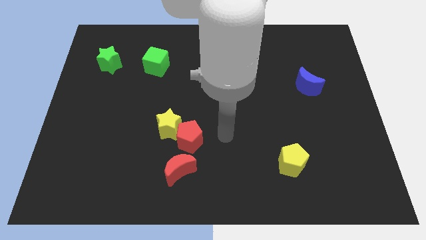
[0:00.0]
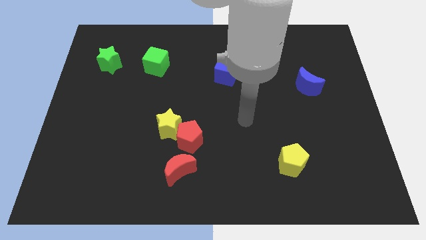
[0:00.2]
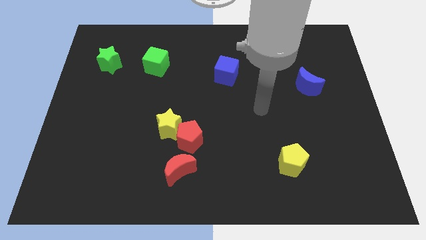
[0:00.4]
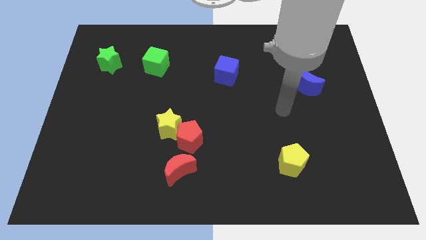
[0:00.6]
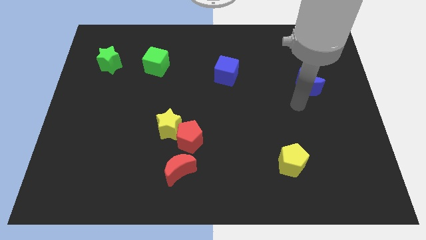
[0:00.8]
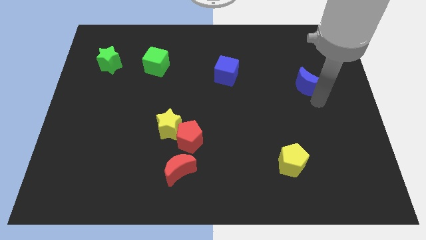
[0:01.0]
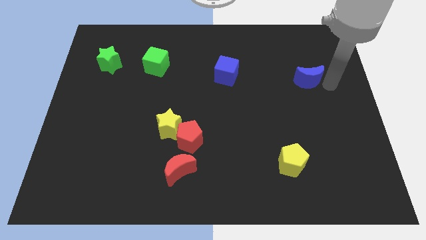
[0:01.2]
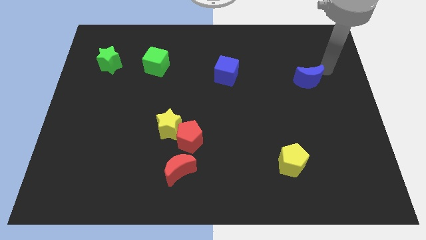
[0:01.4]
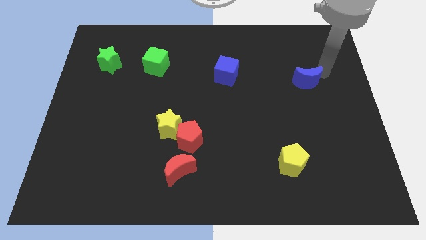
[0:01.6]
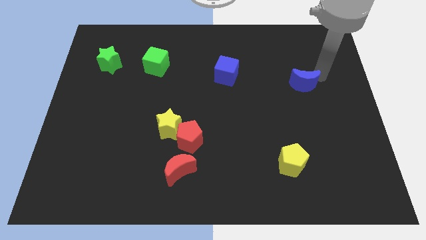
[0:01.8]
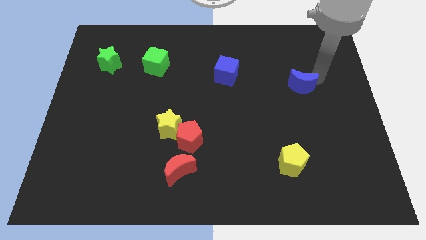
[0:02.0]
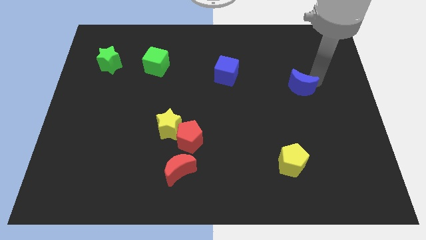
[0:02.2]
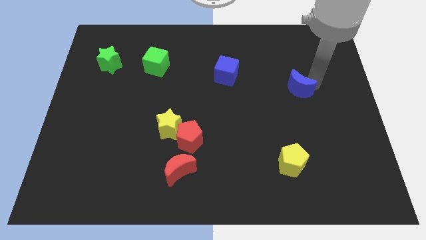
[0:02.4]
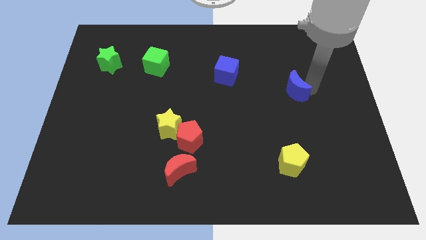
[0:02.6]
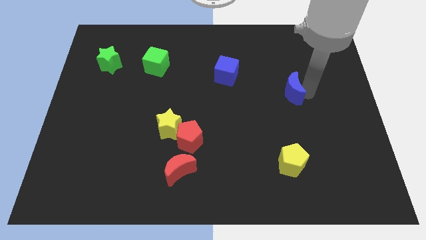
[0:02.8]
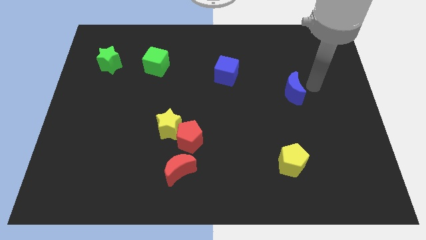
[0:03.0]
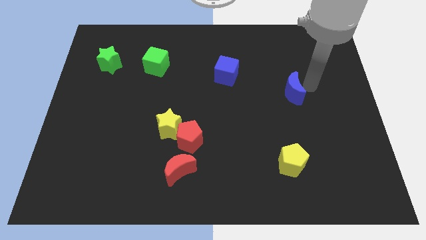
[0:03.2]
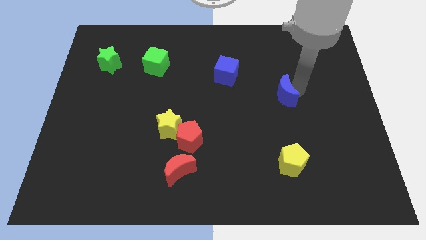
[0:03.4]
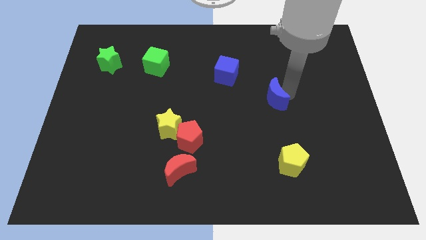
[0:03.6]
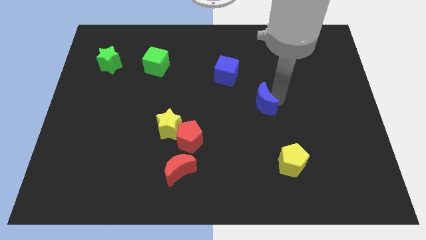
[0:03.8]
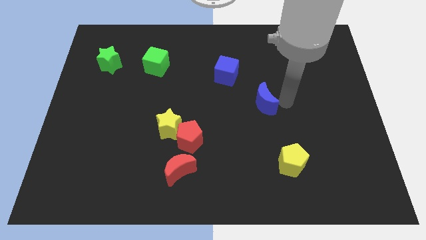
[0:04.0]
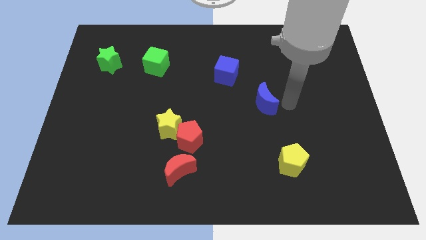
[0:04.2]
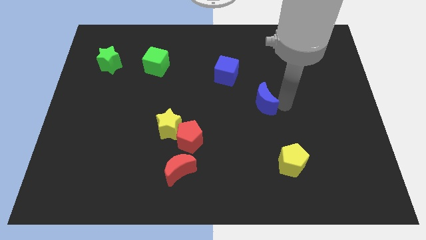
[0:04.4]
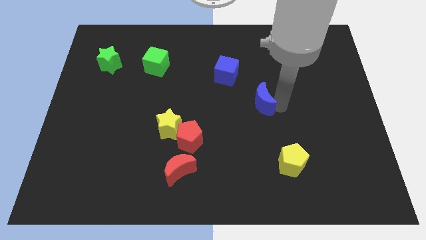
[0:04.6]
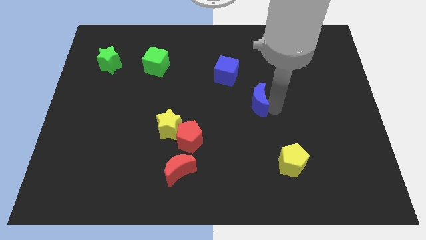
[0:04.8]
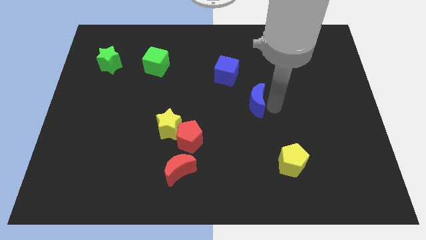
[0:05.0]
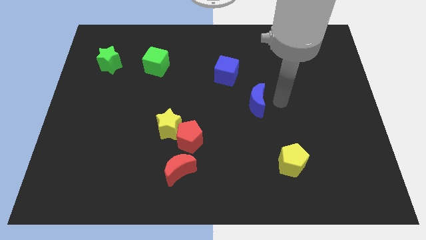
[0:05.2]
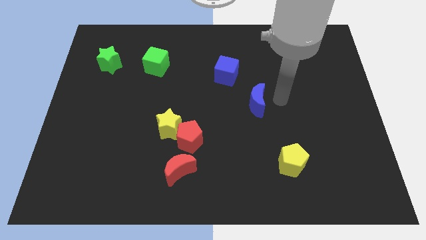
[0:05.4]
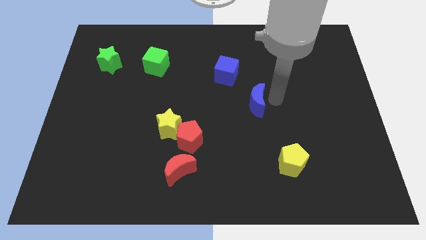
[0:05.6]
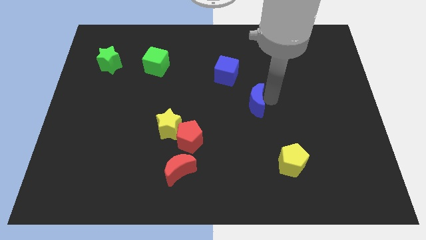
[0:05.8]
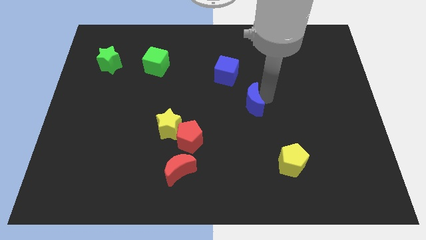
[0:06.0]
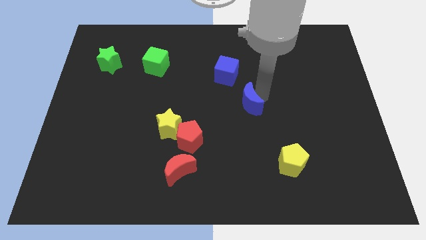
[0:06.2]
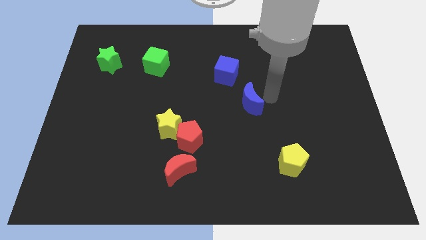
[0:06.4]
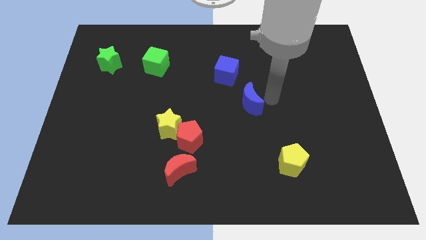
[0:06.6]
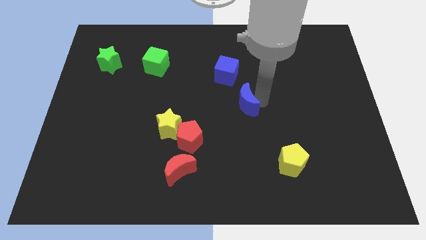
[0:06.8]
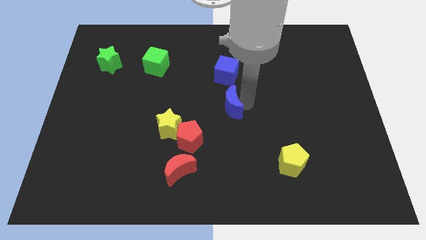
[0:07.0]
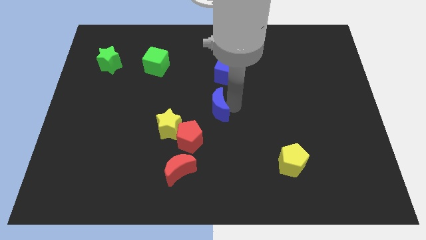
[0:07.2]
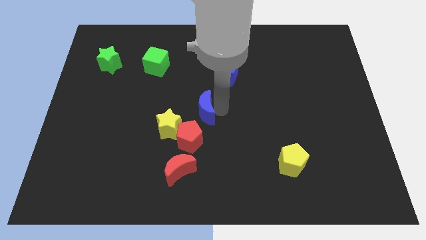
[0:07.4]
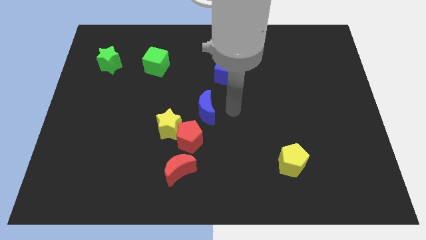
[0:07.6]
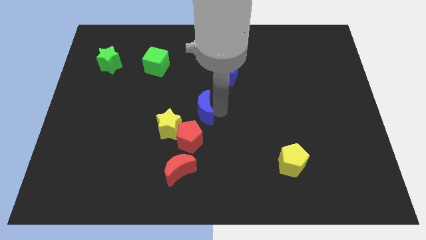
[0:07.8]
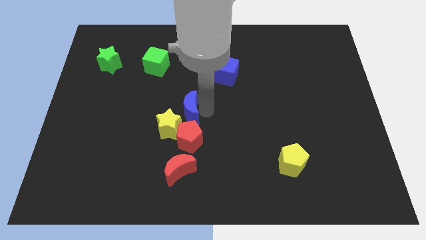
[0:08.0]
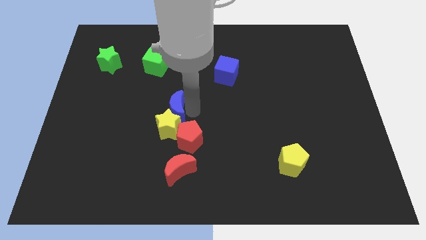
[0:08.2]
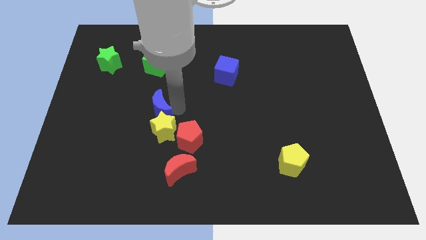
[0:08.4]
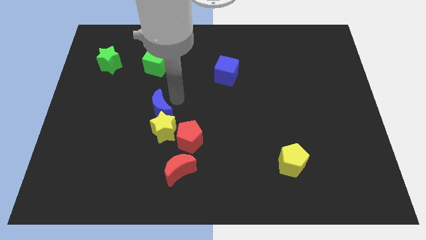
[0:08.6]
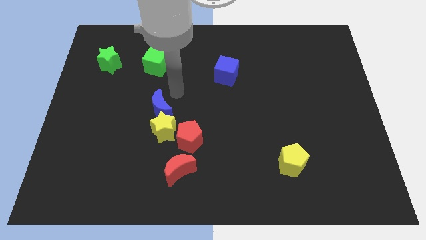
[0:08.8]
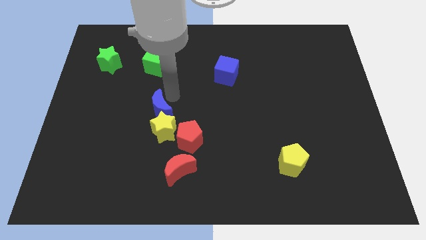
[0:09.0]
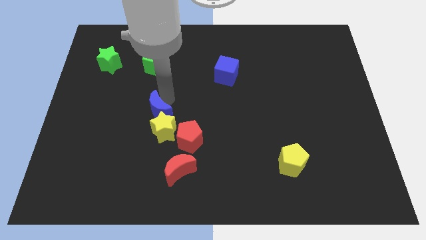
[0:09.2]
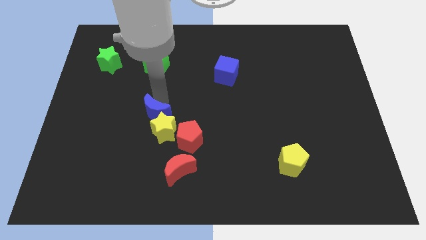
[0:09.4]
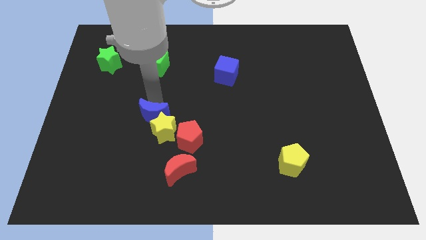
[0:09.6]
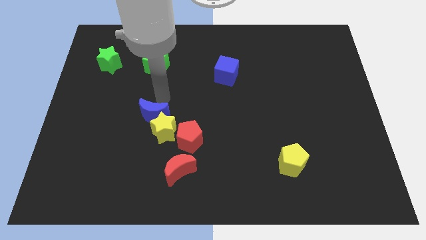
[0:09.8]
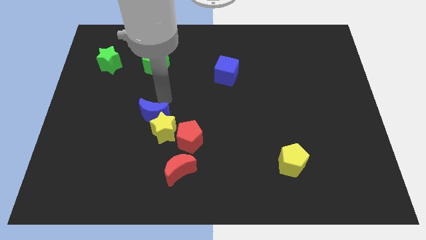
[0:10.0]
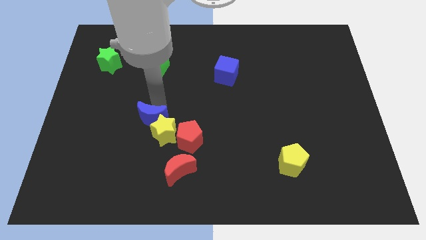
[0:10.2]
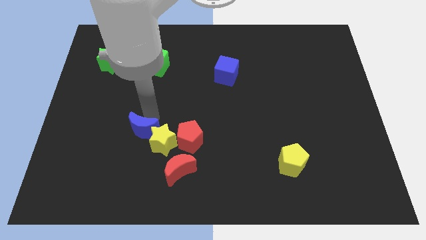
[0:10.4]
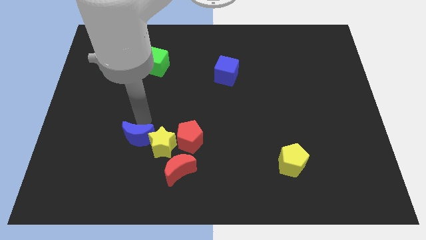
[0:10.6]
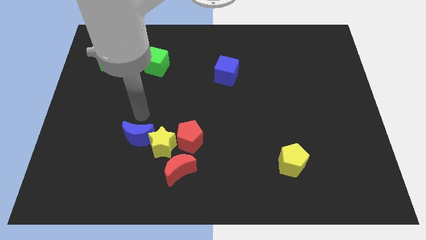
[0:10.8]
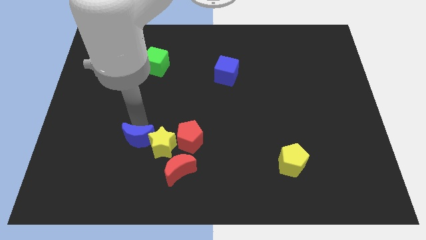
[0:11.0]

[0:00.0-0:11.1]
push the blue moon diagonally down and to the left of the yellow star

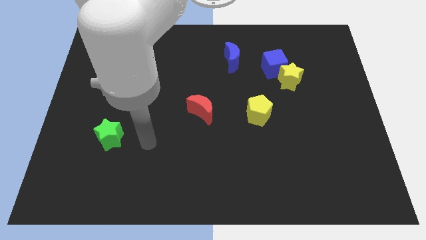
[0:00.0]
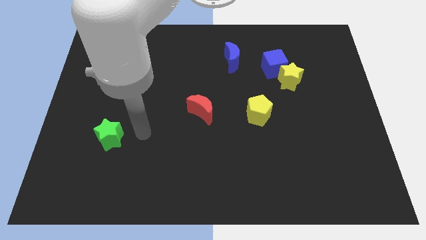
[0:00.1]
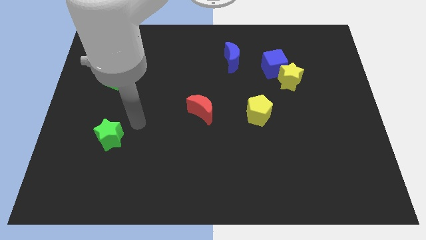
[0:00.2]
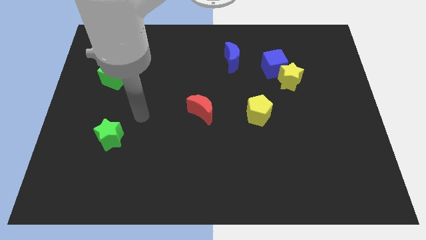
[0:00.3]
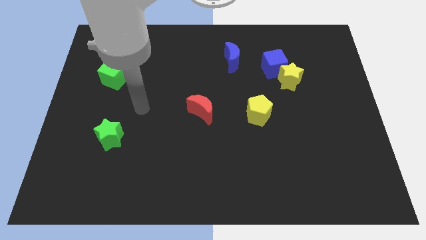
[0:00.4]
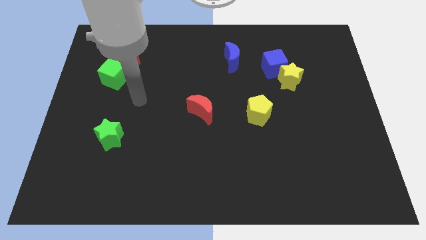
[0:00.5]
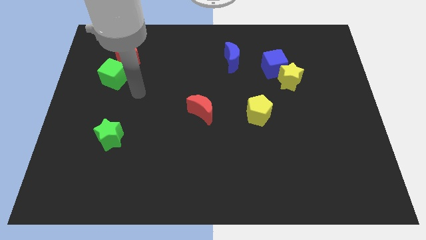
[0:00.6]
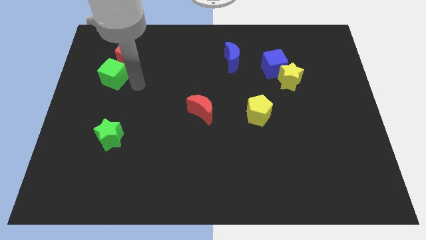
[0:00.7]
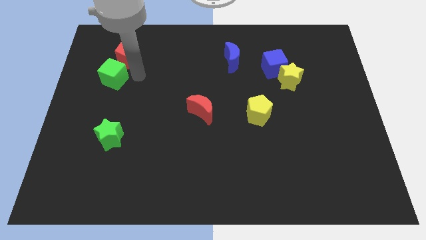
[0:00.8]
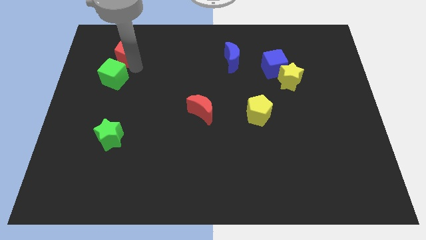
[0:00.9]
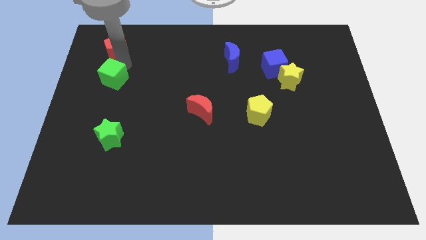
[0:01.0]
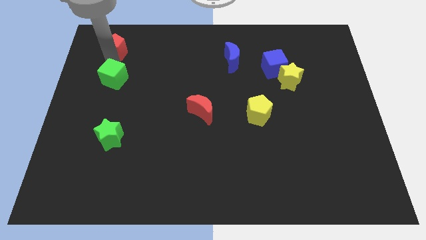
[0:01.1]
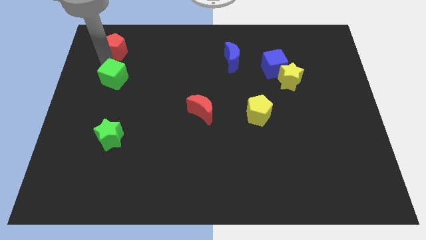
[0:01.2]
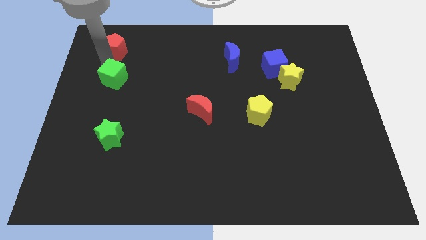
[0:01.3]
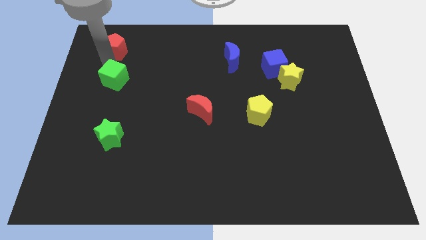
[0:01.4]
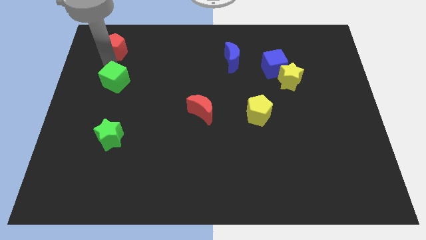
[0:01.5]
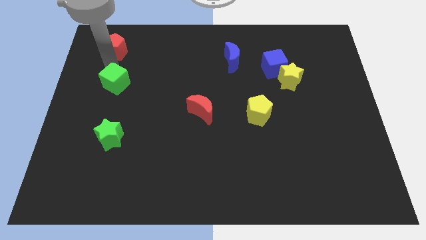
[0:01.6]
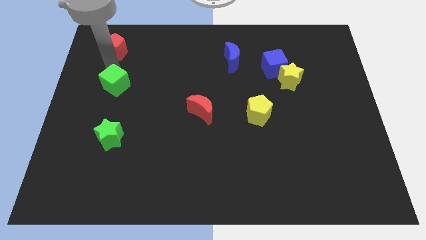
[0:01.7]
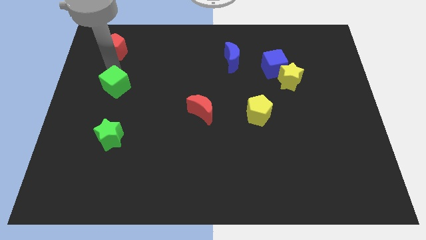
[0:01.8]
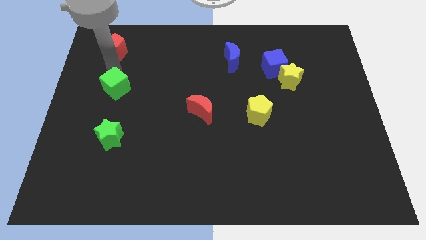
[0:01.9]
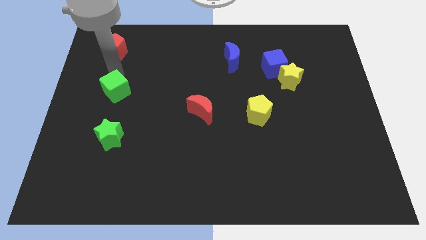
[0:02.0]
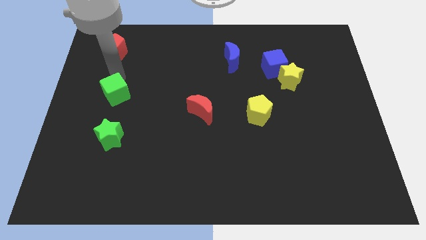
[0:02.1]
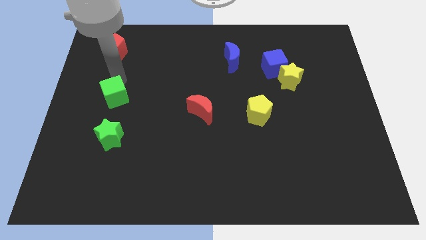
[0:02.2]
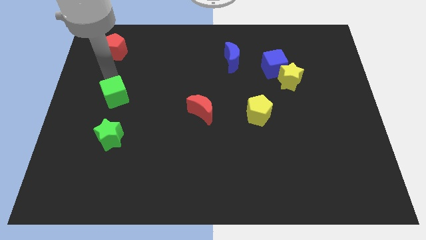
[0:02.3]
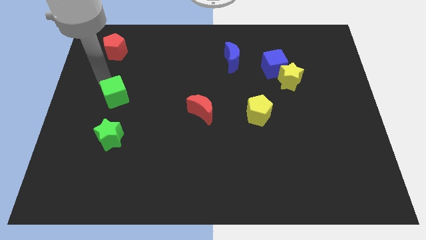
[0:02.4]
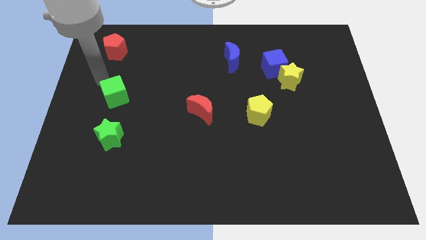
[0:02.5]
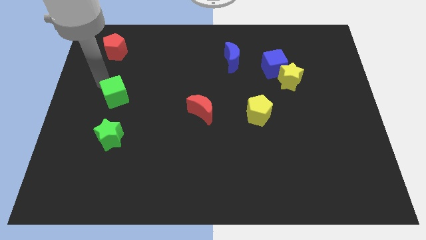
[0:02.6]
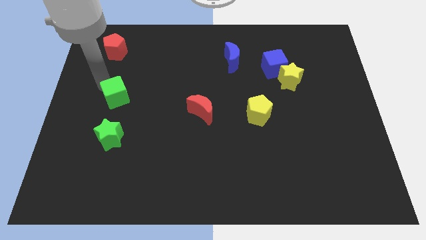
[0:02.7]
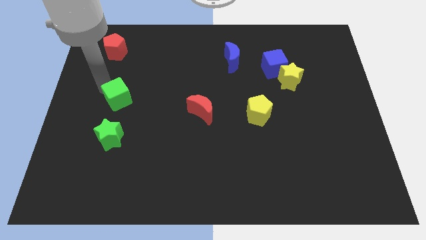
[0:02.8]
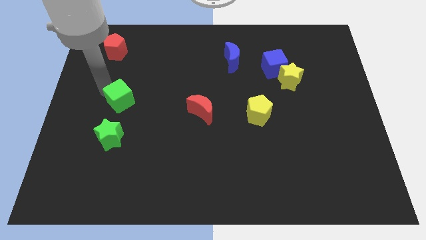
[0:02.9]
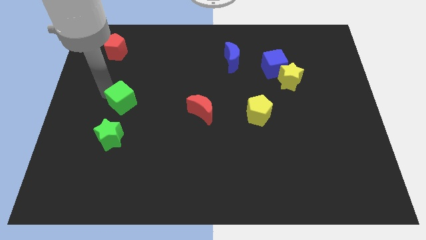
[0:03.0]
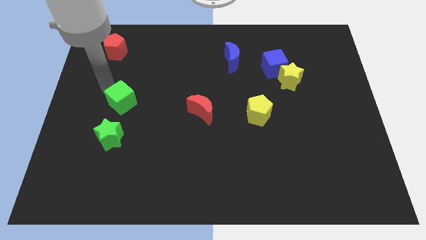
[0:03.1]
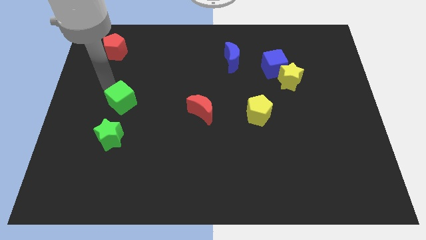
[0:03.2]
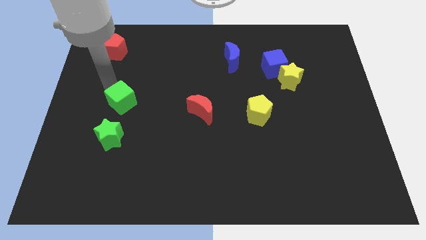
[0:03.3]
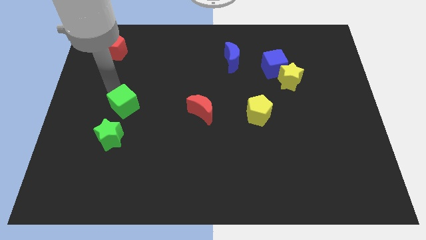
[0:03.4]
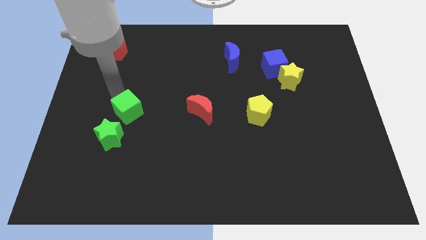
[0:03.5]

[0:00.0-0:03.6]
put the green cube to the top right of the green star
